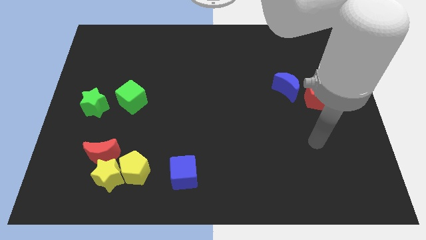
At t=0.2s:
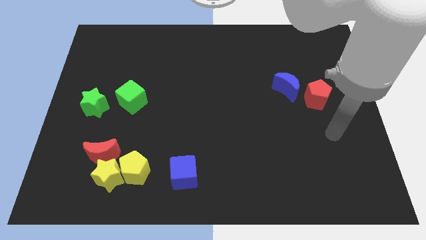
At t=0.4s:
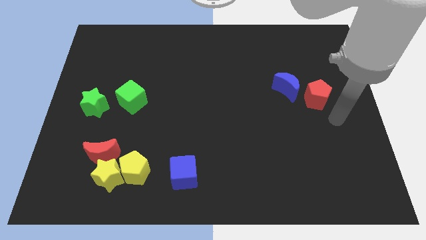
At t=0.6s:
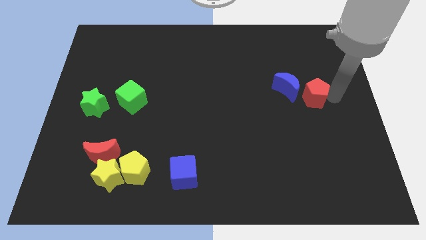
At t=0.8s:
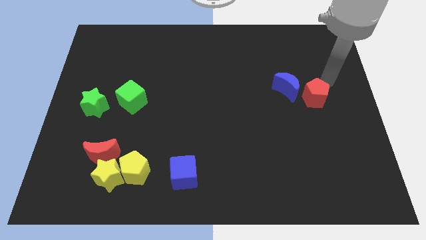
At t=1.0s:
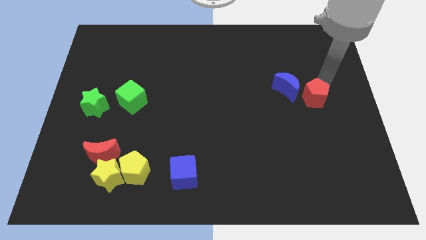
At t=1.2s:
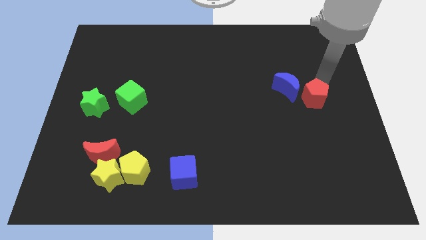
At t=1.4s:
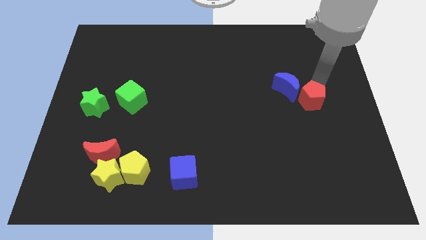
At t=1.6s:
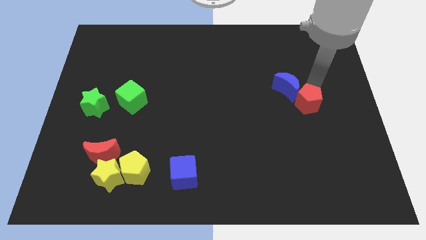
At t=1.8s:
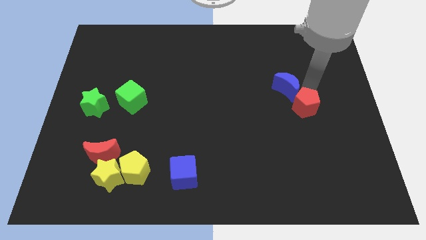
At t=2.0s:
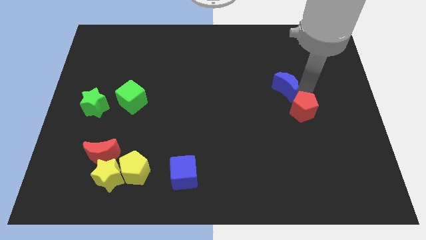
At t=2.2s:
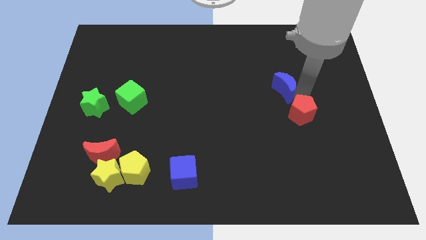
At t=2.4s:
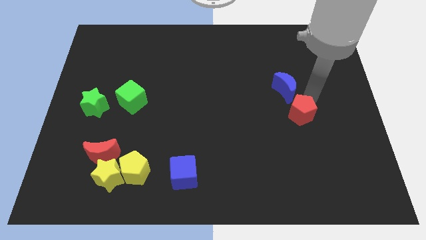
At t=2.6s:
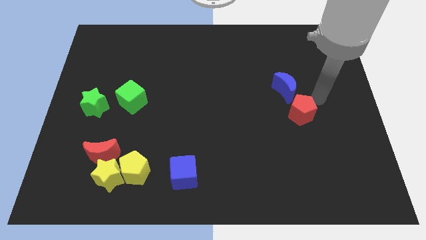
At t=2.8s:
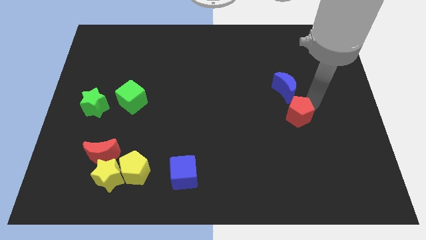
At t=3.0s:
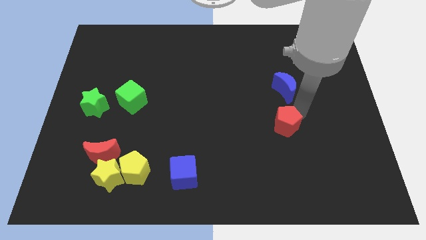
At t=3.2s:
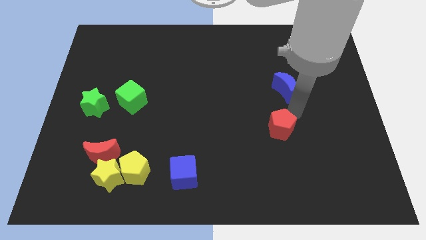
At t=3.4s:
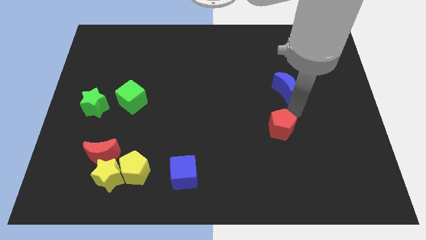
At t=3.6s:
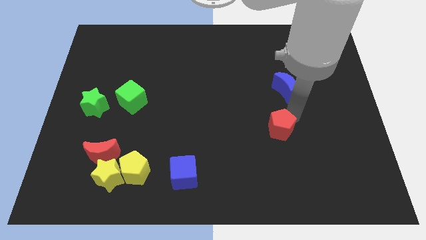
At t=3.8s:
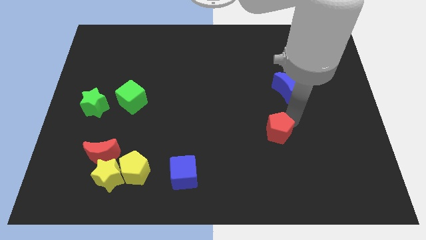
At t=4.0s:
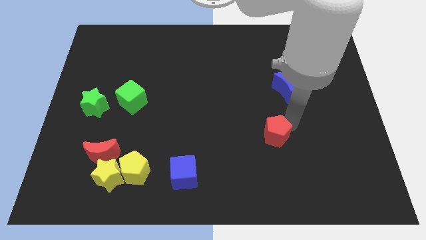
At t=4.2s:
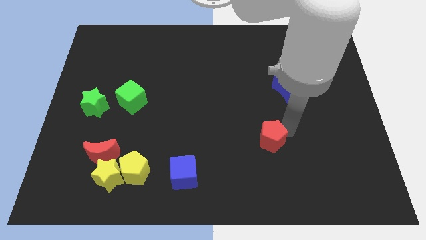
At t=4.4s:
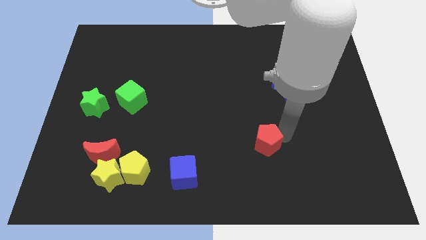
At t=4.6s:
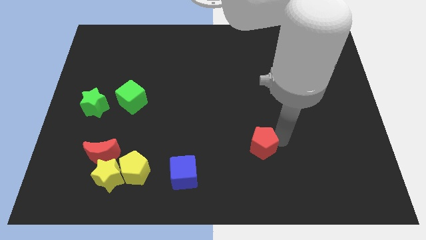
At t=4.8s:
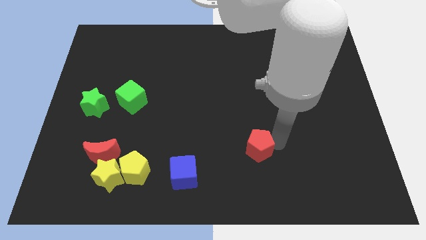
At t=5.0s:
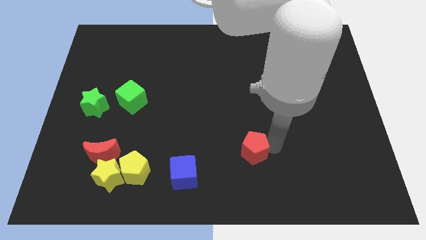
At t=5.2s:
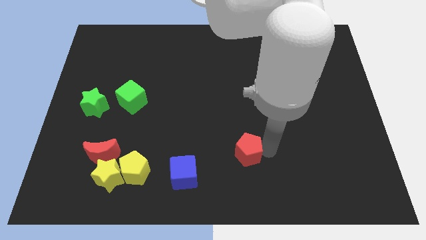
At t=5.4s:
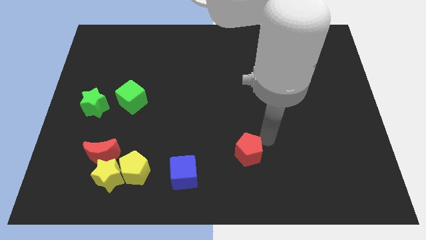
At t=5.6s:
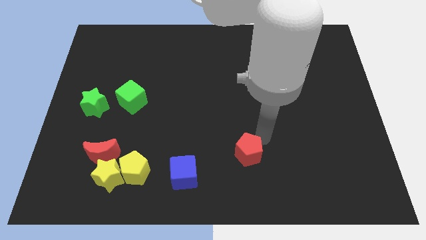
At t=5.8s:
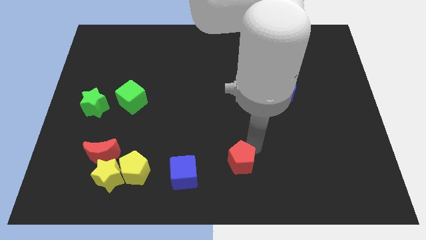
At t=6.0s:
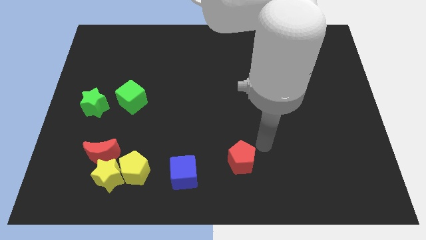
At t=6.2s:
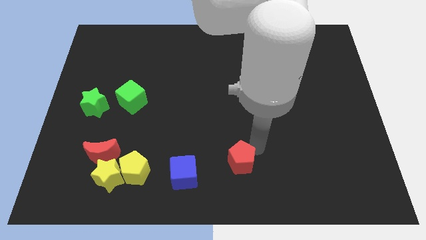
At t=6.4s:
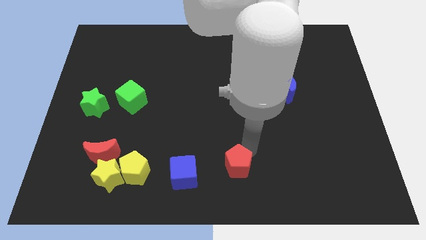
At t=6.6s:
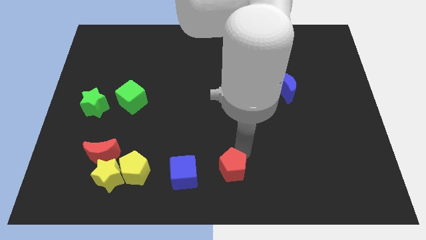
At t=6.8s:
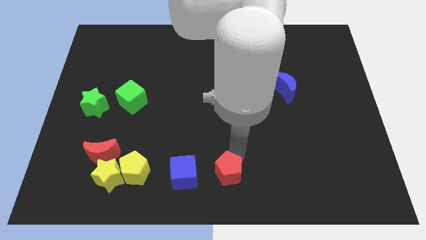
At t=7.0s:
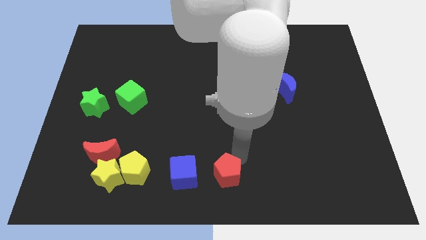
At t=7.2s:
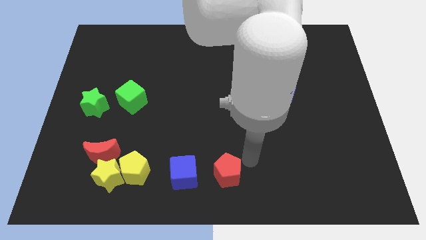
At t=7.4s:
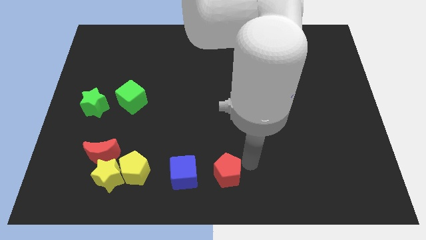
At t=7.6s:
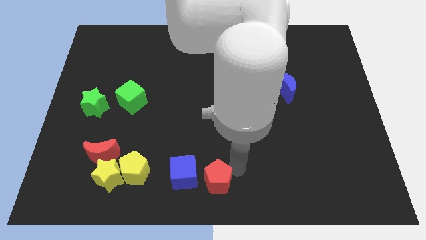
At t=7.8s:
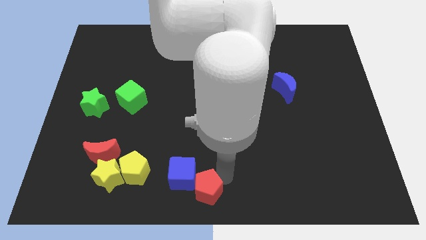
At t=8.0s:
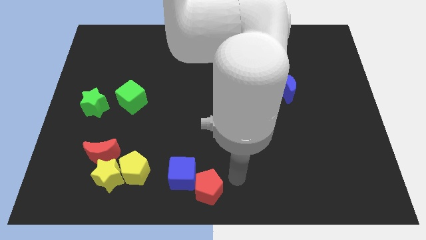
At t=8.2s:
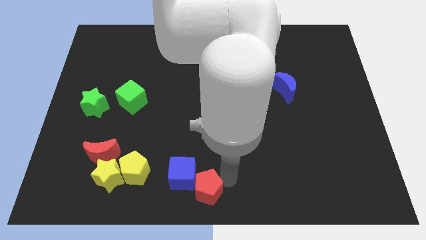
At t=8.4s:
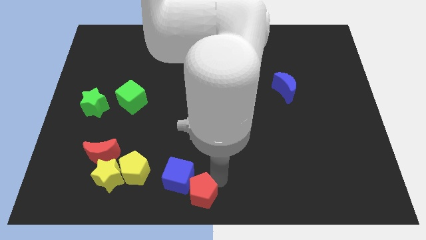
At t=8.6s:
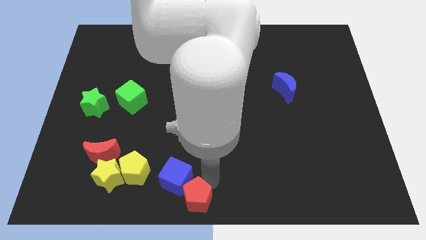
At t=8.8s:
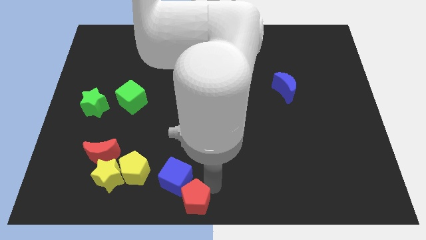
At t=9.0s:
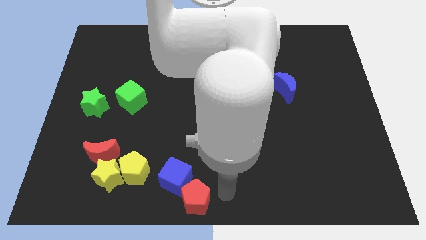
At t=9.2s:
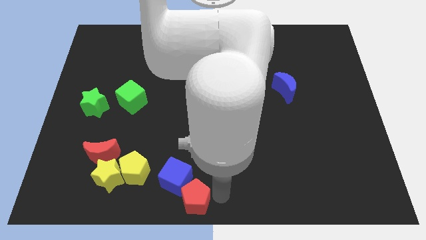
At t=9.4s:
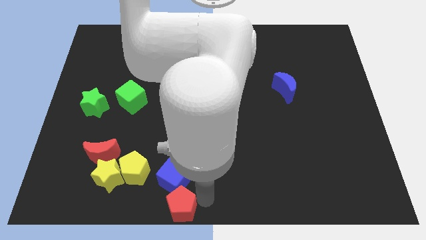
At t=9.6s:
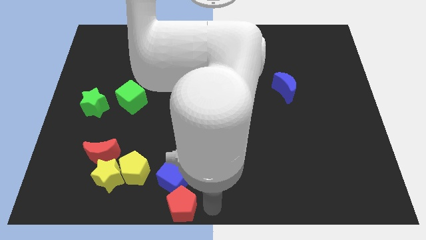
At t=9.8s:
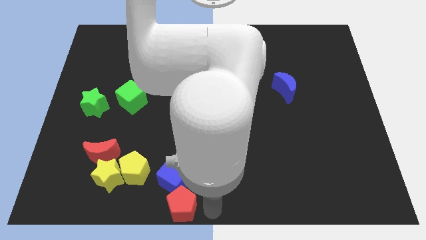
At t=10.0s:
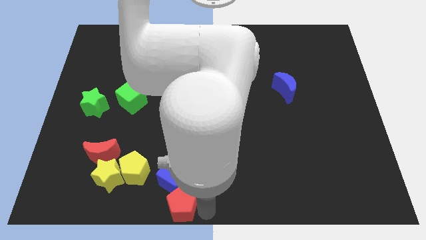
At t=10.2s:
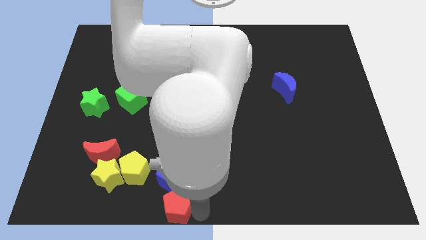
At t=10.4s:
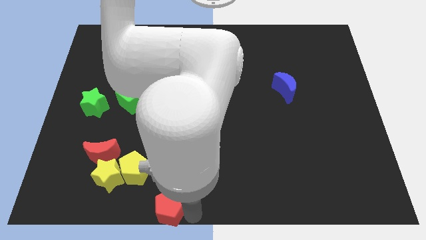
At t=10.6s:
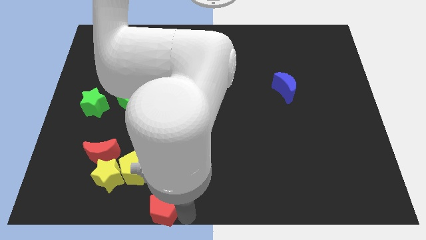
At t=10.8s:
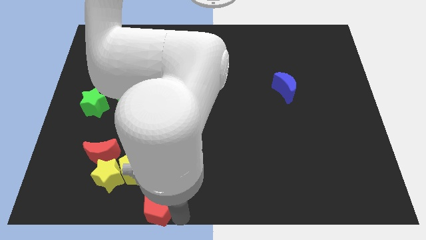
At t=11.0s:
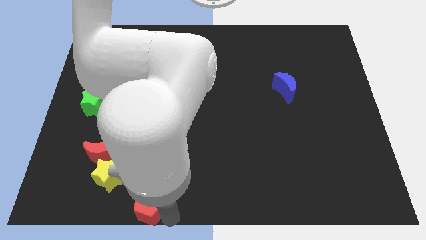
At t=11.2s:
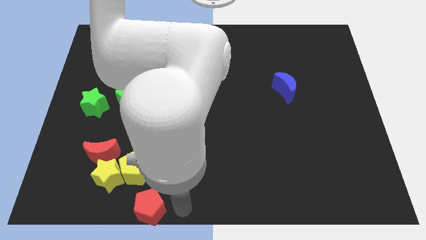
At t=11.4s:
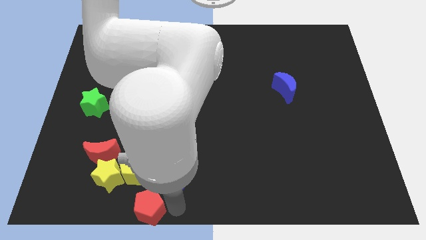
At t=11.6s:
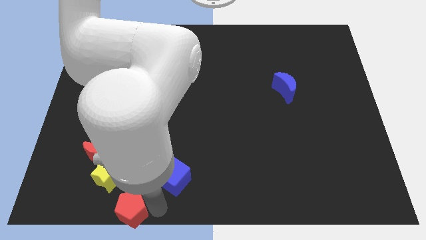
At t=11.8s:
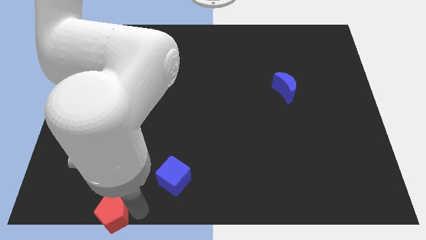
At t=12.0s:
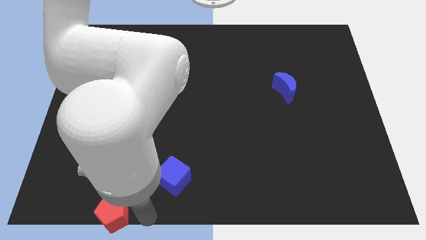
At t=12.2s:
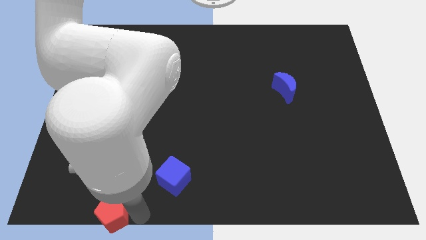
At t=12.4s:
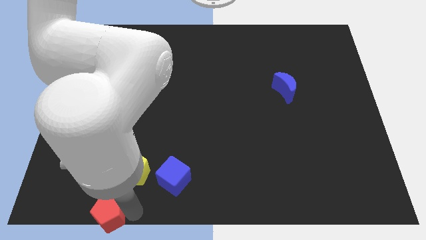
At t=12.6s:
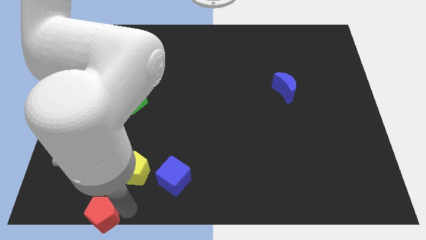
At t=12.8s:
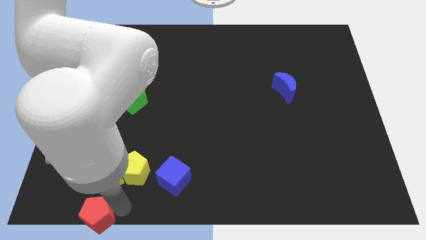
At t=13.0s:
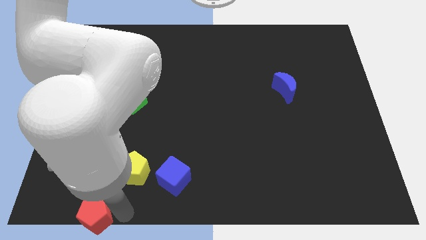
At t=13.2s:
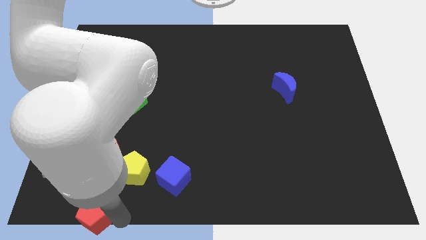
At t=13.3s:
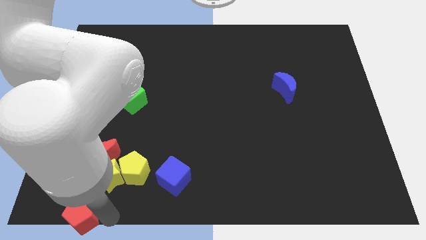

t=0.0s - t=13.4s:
put the red pentagon to the bottom left corner

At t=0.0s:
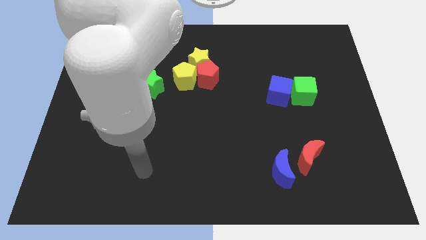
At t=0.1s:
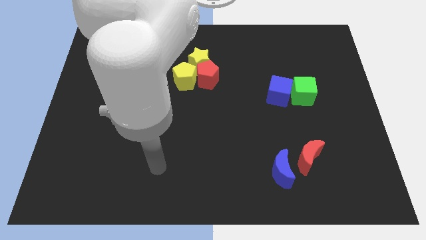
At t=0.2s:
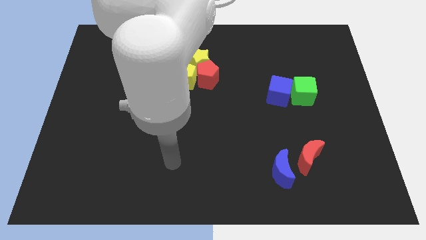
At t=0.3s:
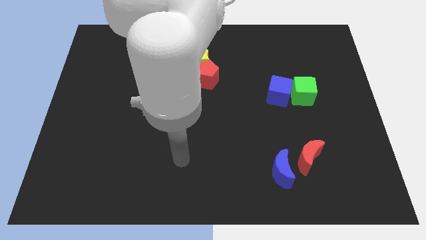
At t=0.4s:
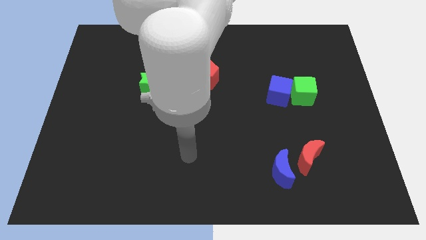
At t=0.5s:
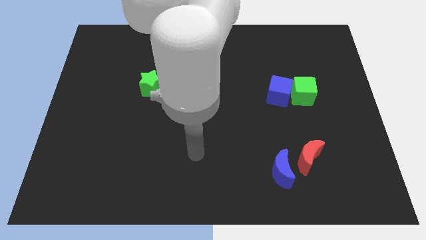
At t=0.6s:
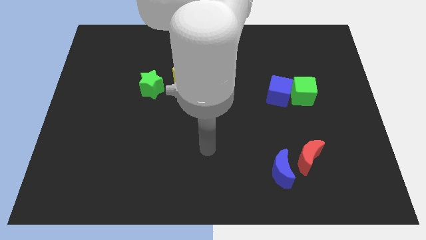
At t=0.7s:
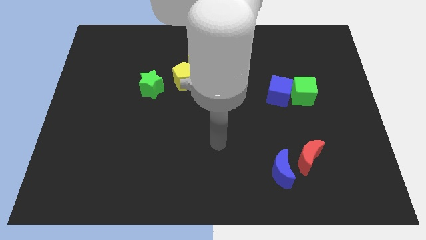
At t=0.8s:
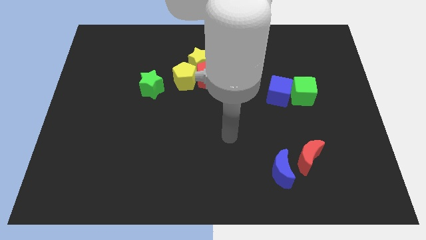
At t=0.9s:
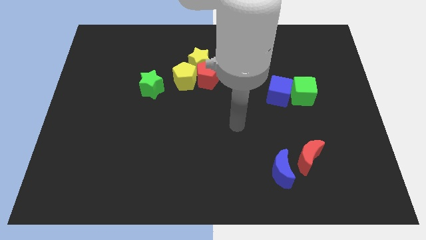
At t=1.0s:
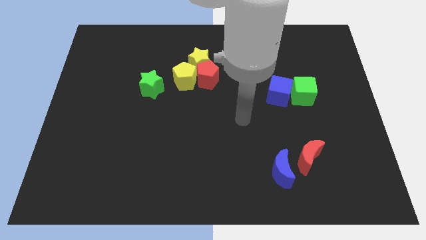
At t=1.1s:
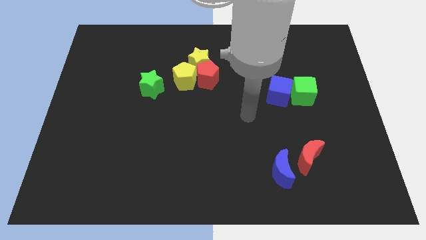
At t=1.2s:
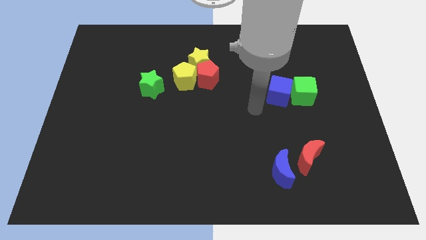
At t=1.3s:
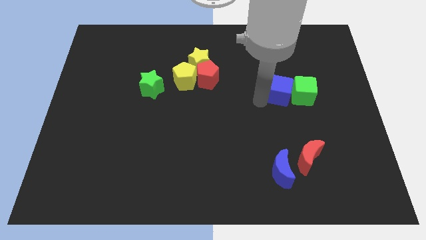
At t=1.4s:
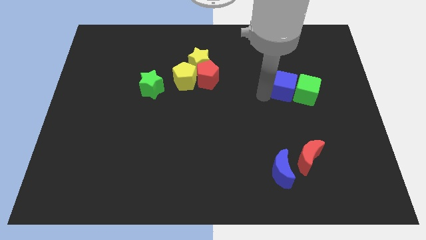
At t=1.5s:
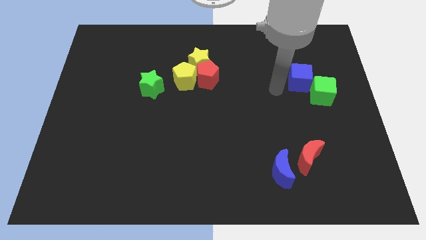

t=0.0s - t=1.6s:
move the green cube to the right side of the board
